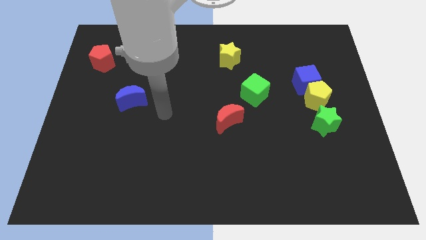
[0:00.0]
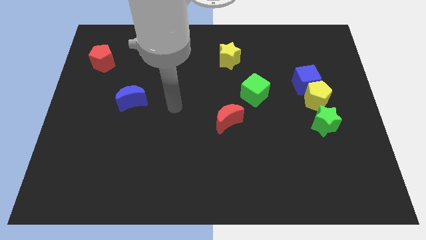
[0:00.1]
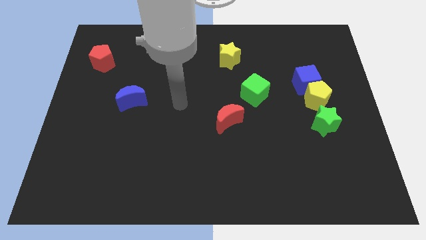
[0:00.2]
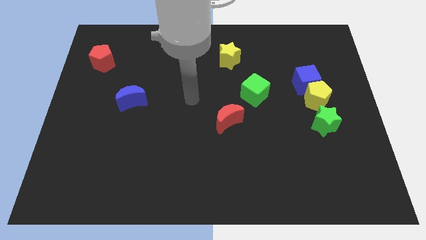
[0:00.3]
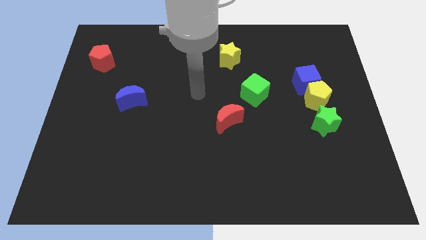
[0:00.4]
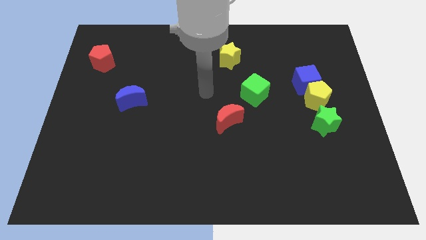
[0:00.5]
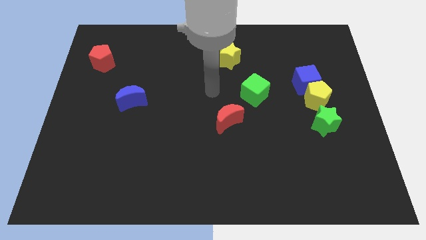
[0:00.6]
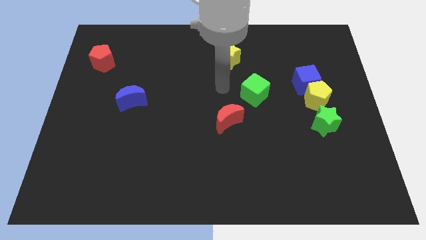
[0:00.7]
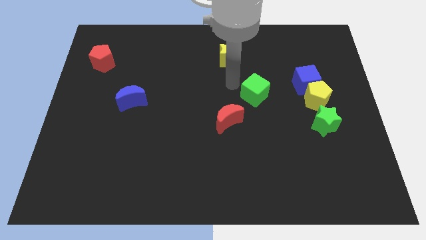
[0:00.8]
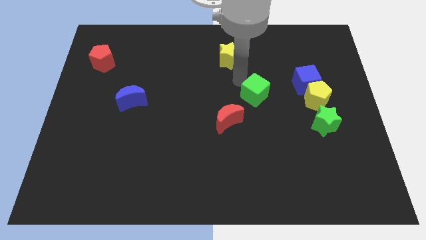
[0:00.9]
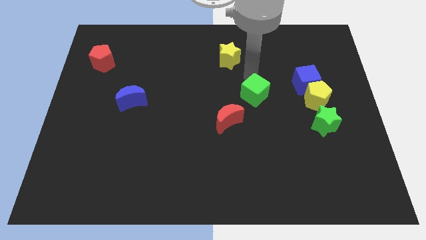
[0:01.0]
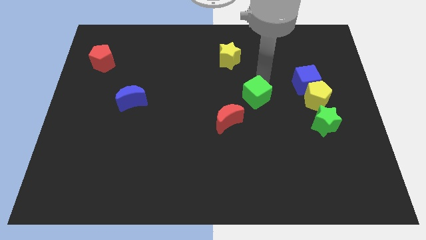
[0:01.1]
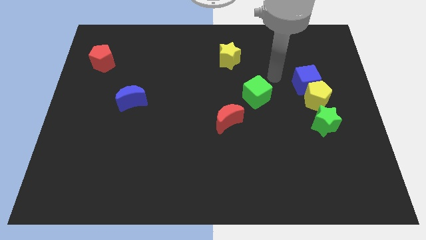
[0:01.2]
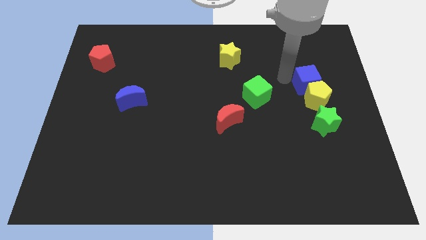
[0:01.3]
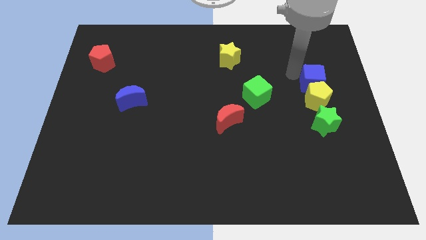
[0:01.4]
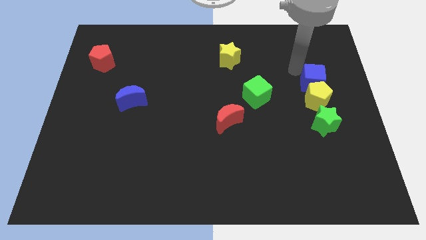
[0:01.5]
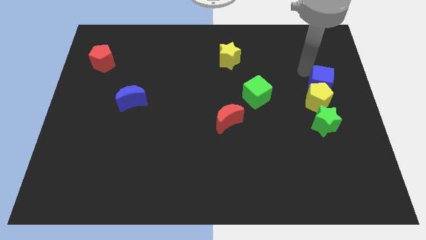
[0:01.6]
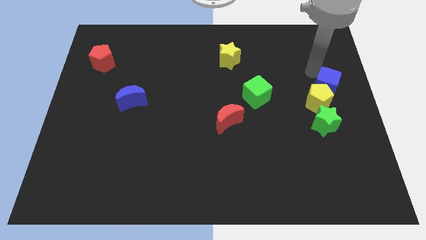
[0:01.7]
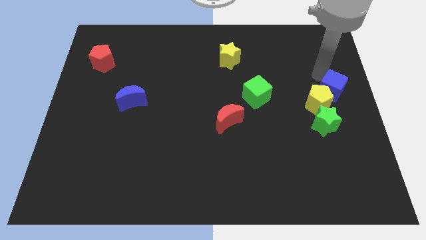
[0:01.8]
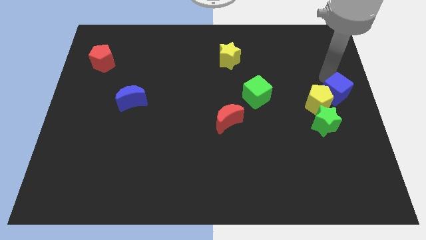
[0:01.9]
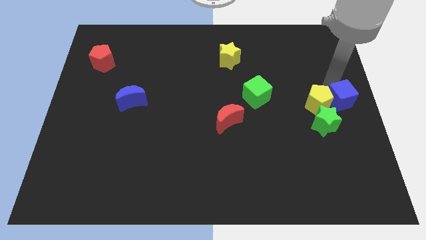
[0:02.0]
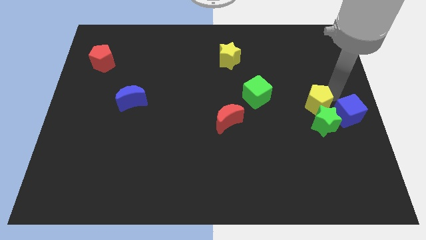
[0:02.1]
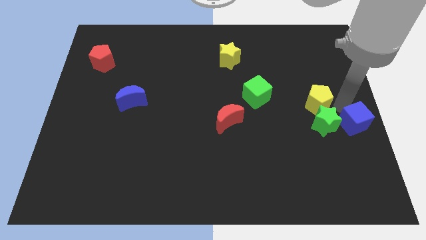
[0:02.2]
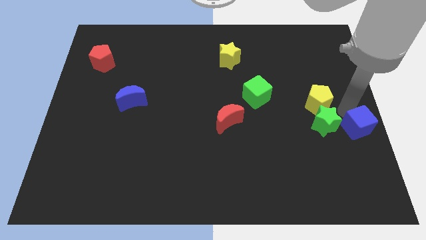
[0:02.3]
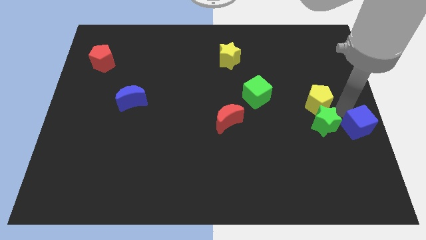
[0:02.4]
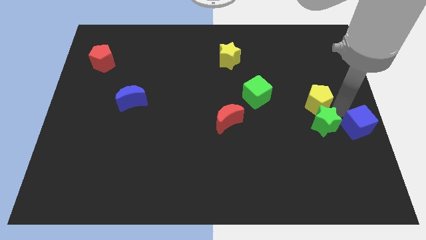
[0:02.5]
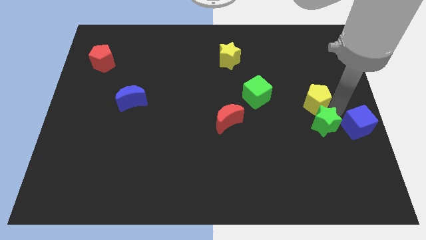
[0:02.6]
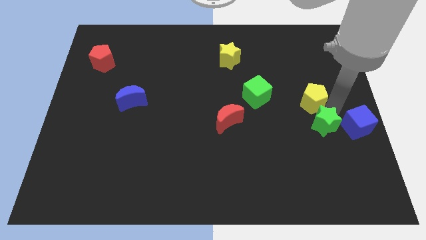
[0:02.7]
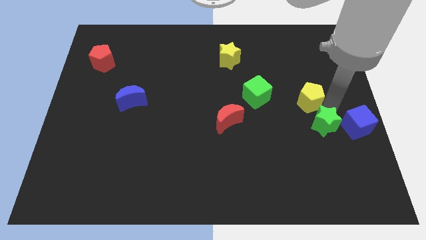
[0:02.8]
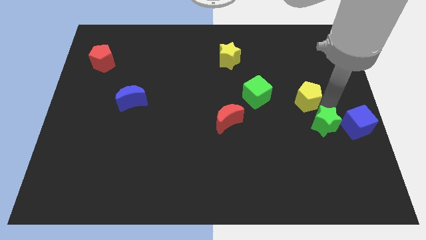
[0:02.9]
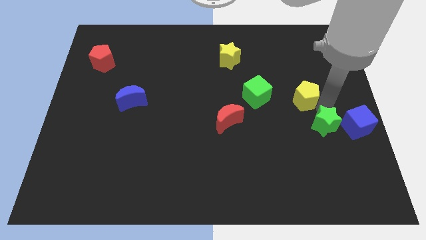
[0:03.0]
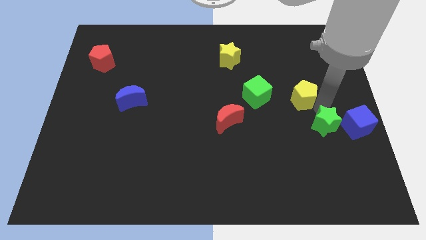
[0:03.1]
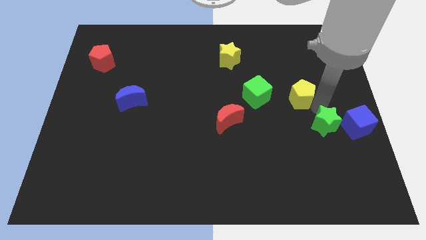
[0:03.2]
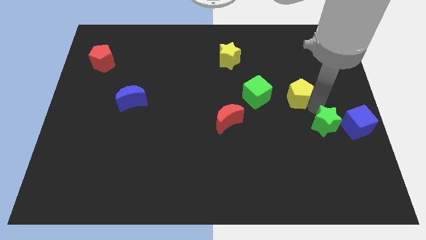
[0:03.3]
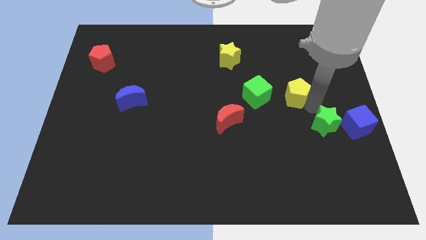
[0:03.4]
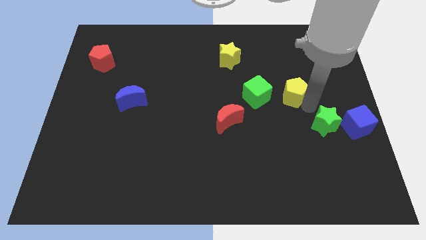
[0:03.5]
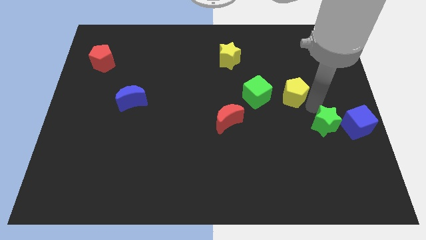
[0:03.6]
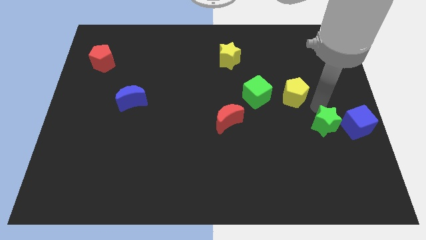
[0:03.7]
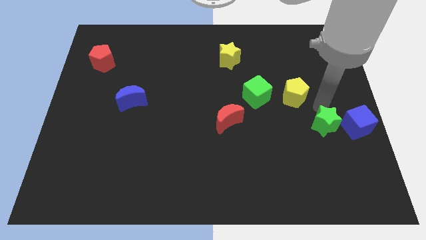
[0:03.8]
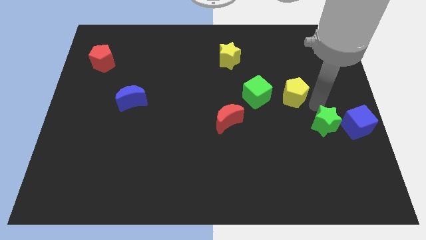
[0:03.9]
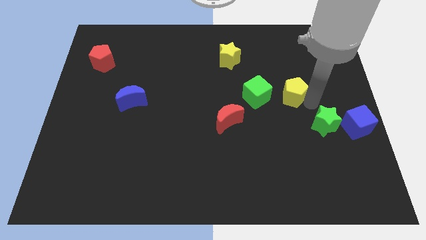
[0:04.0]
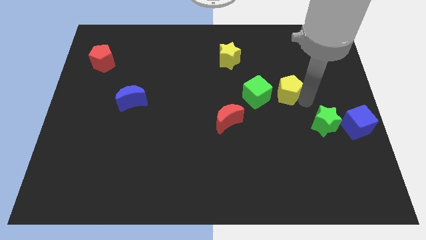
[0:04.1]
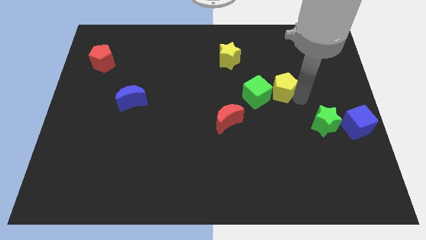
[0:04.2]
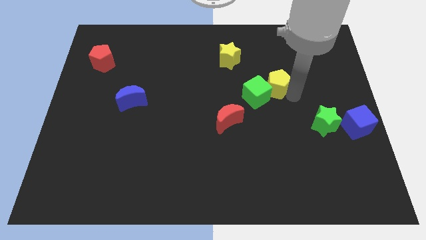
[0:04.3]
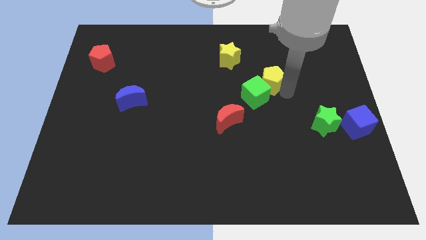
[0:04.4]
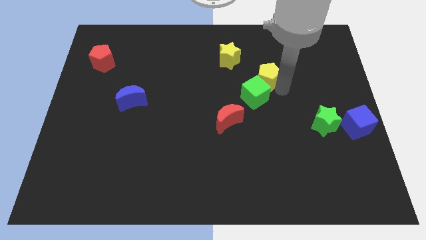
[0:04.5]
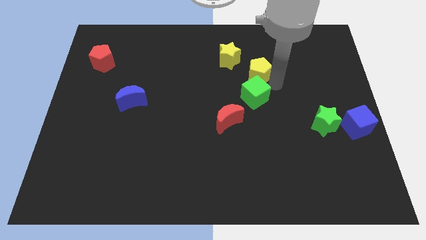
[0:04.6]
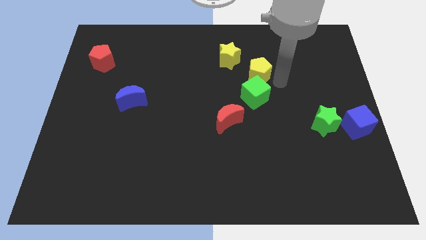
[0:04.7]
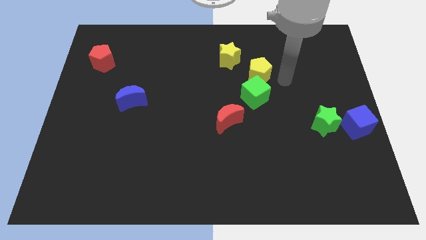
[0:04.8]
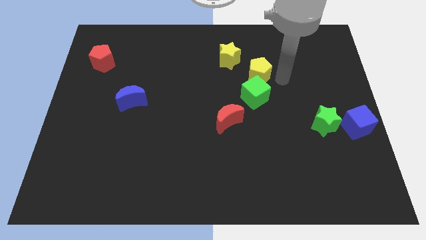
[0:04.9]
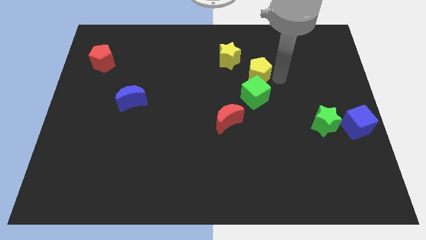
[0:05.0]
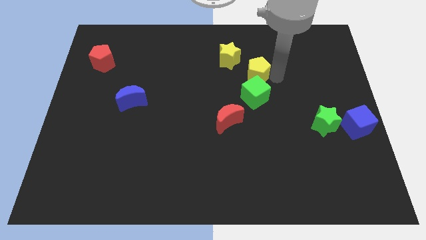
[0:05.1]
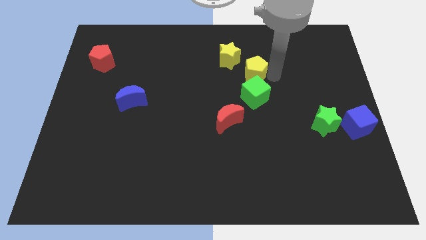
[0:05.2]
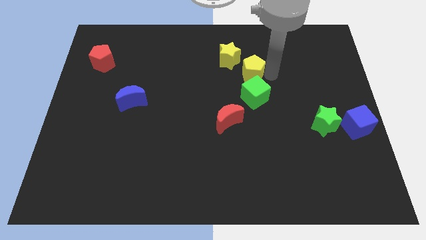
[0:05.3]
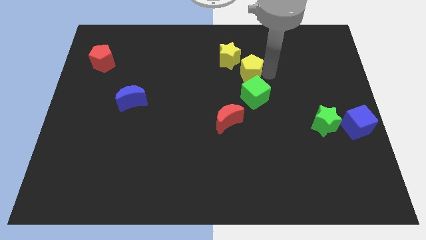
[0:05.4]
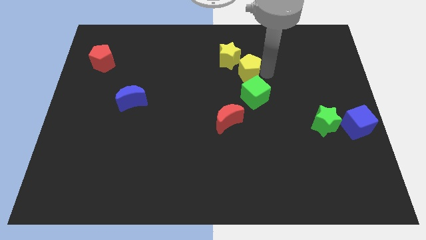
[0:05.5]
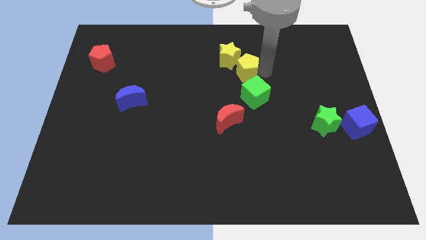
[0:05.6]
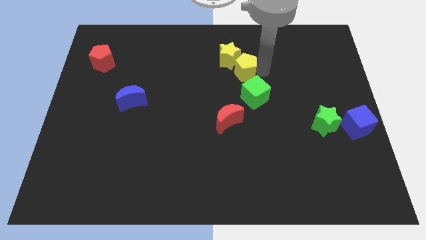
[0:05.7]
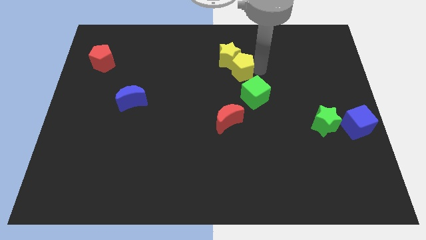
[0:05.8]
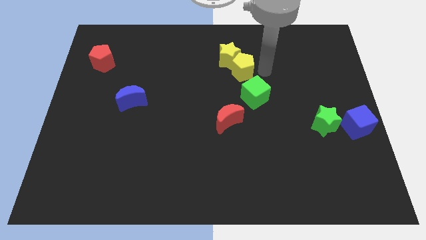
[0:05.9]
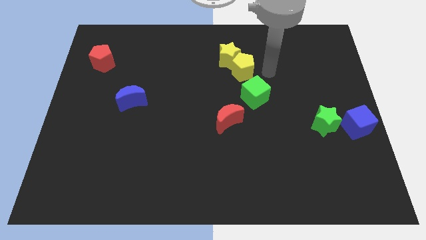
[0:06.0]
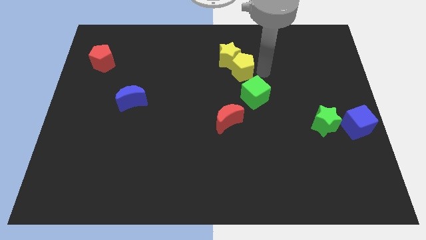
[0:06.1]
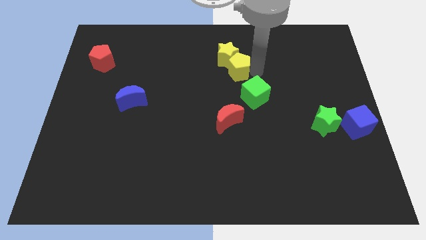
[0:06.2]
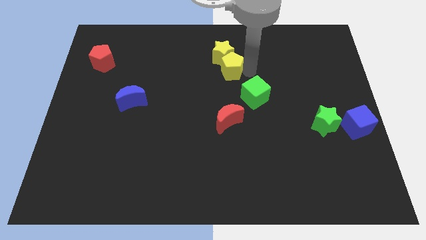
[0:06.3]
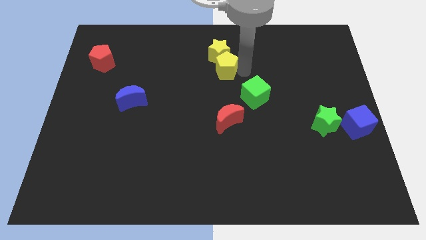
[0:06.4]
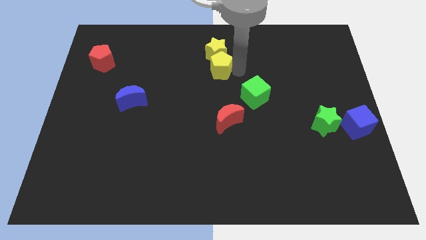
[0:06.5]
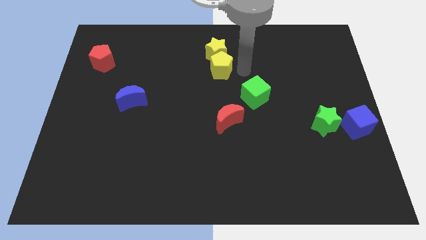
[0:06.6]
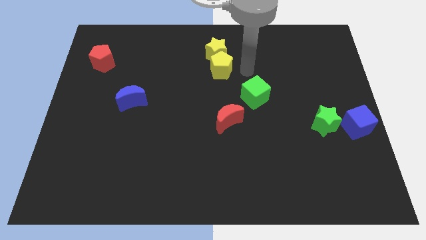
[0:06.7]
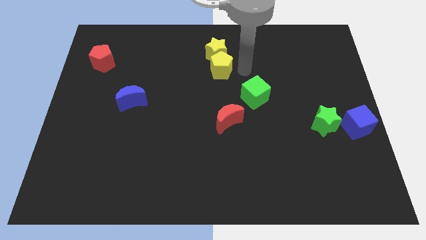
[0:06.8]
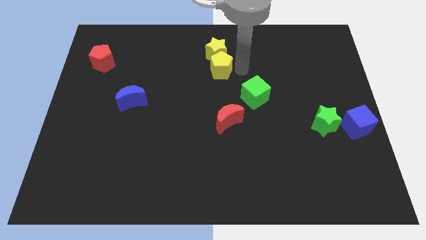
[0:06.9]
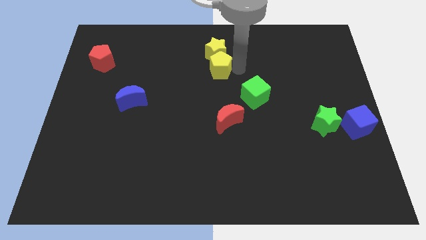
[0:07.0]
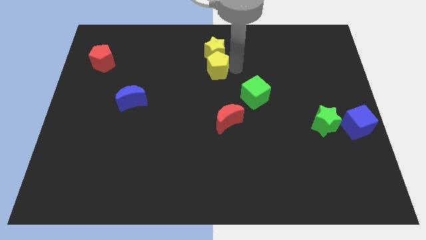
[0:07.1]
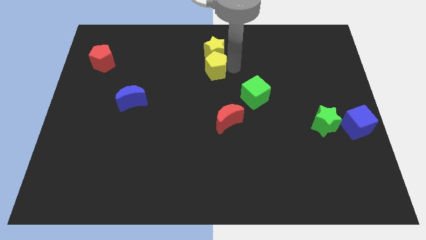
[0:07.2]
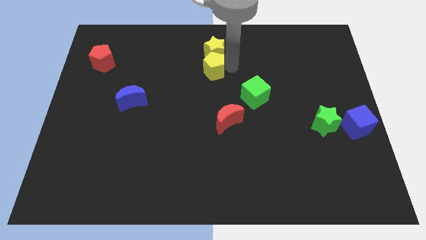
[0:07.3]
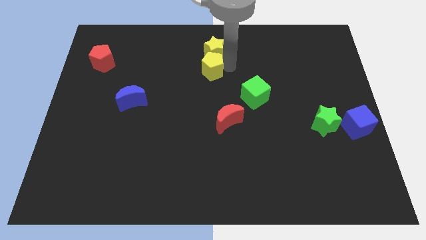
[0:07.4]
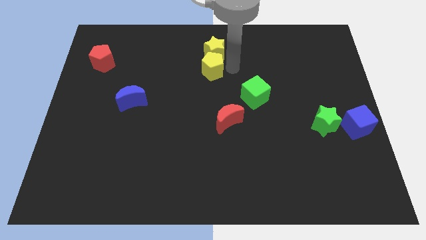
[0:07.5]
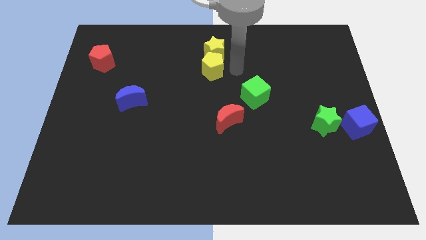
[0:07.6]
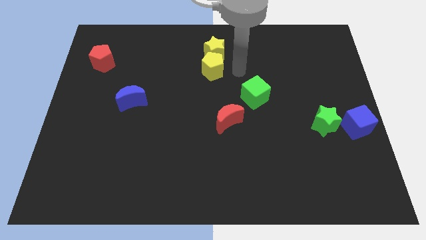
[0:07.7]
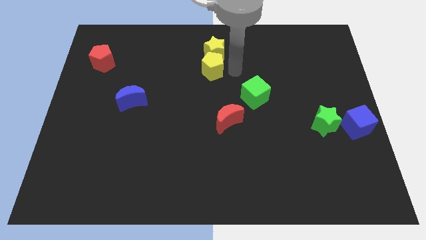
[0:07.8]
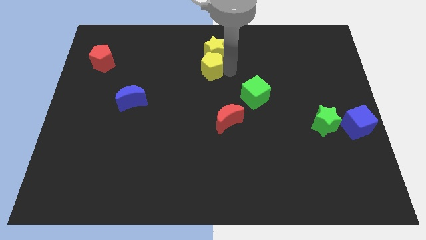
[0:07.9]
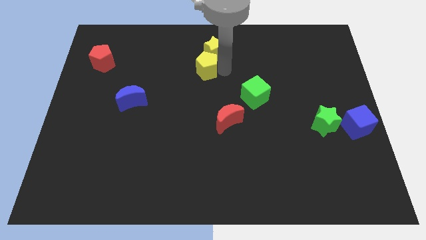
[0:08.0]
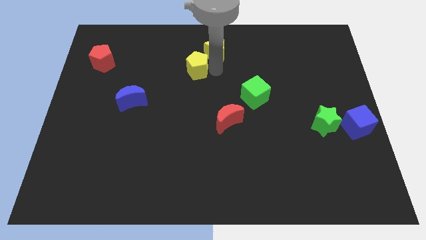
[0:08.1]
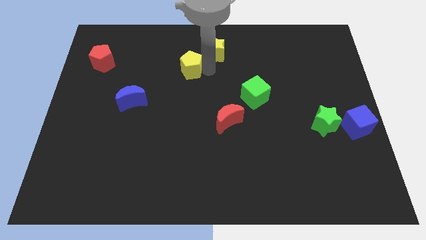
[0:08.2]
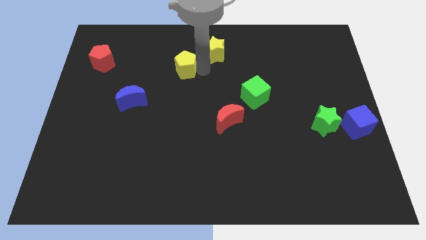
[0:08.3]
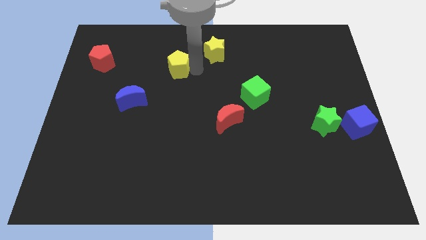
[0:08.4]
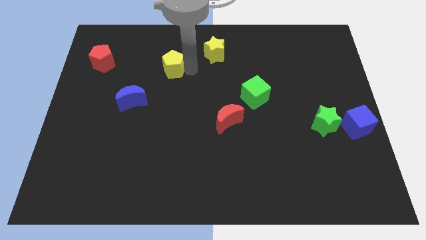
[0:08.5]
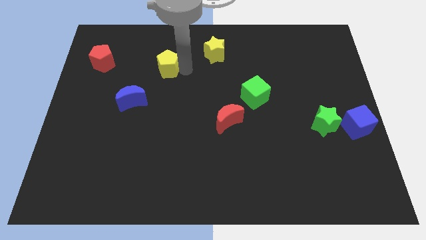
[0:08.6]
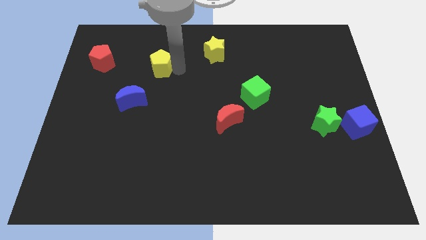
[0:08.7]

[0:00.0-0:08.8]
slide the yellow pentagon right of the red pentagon
